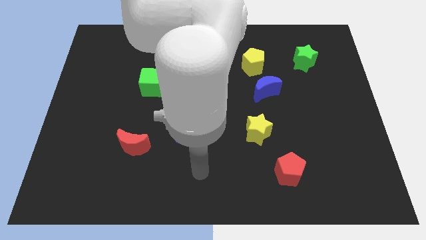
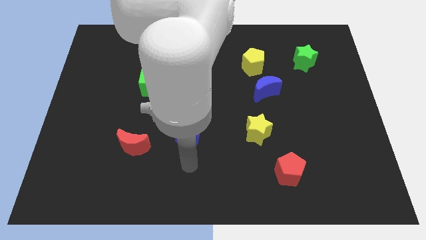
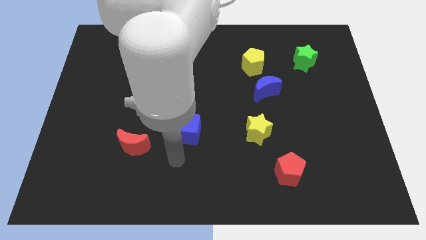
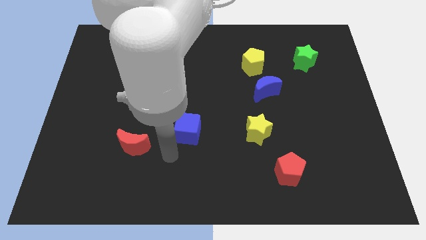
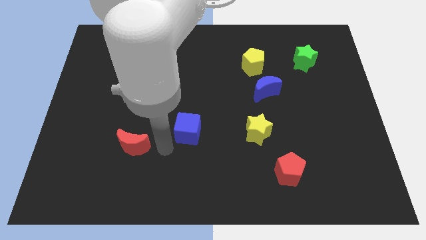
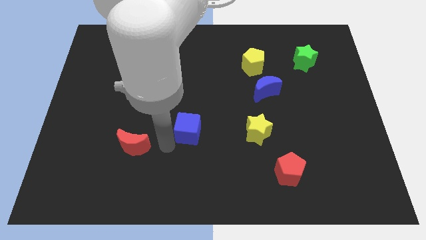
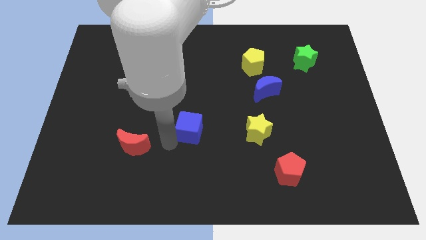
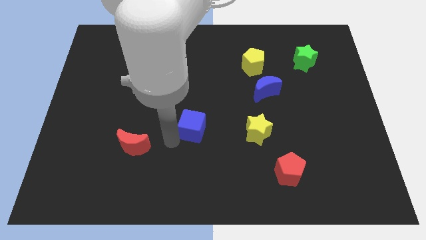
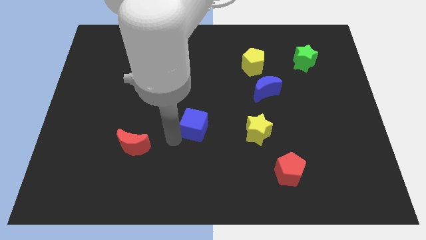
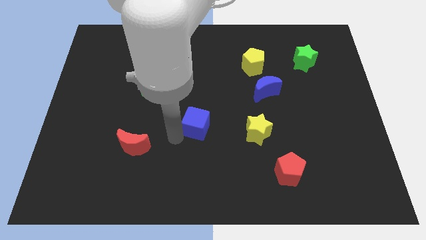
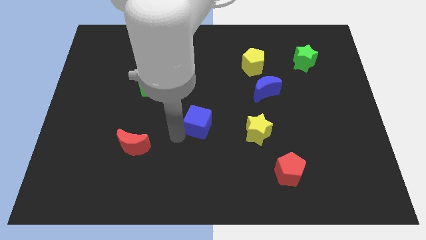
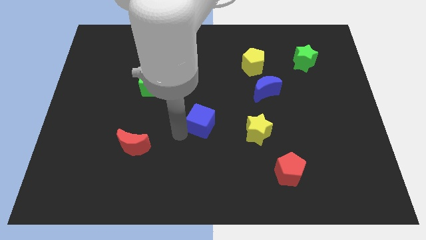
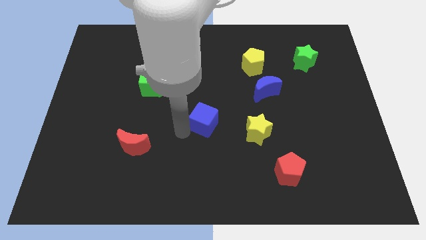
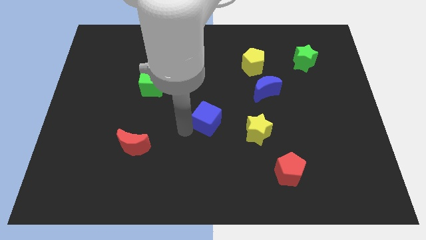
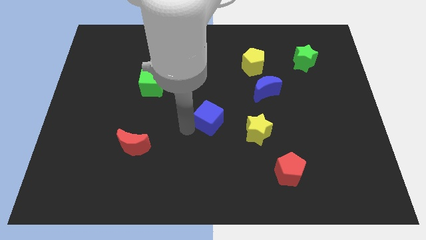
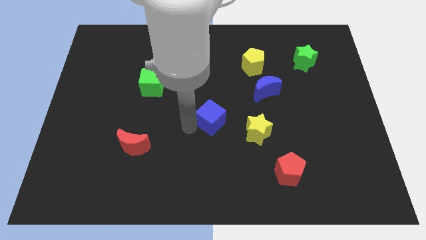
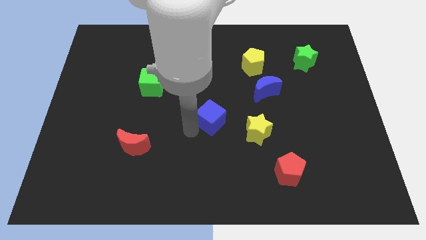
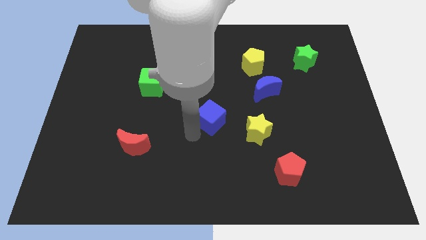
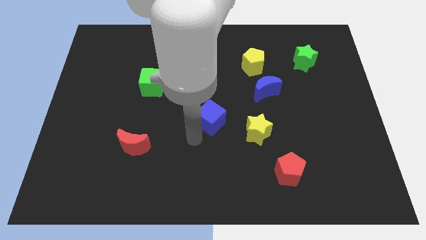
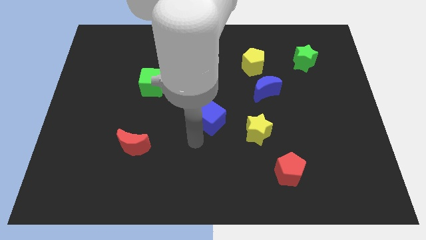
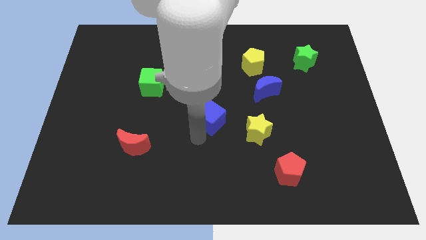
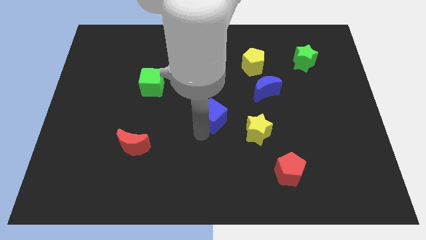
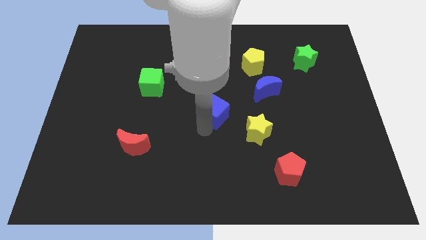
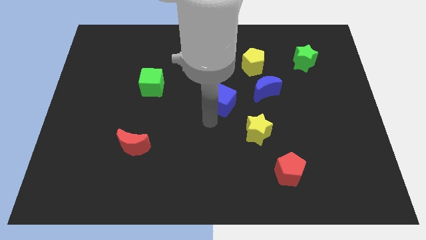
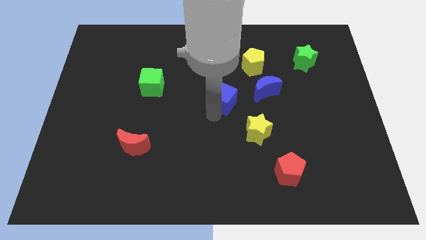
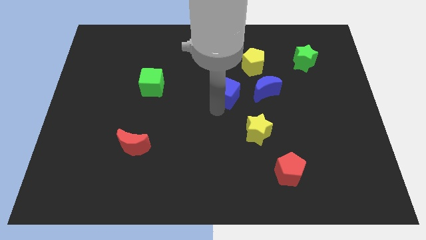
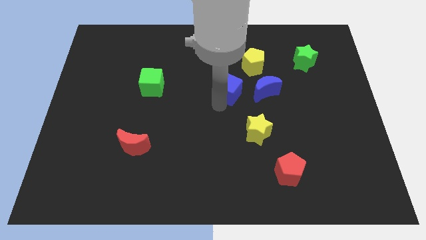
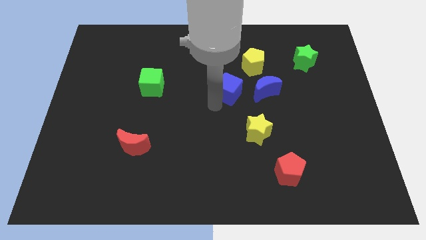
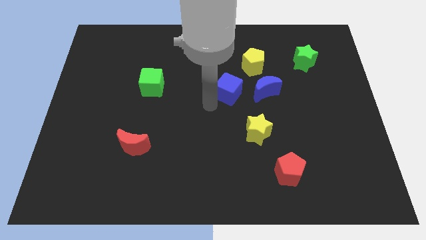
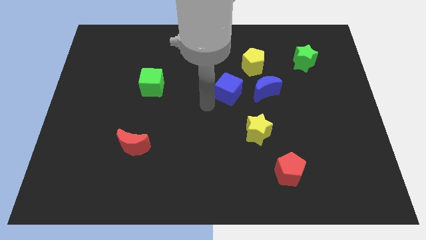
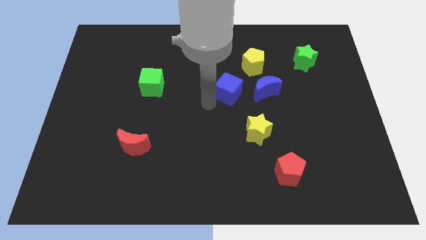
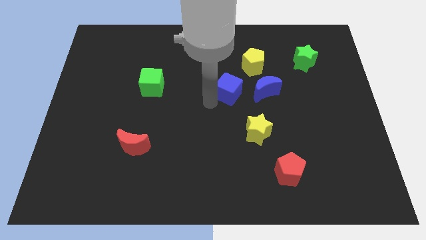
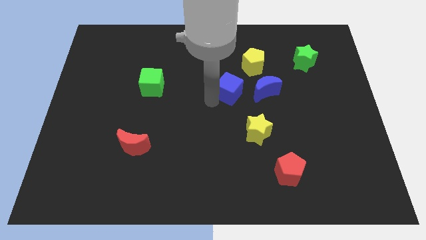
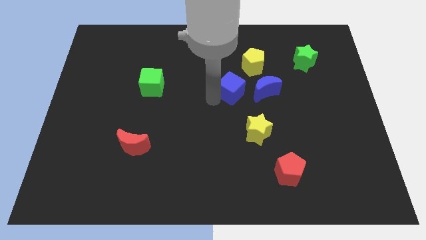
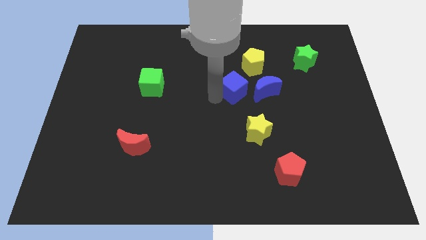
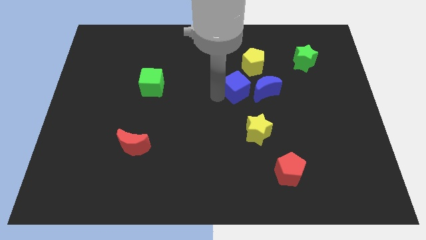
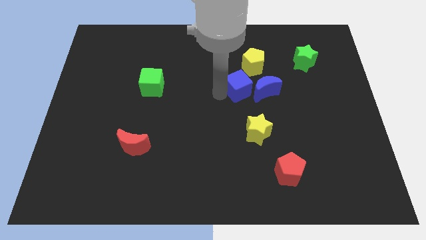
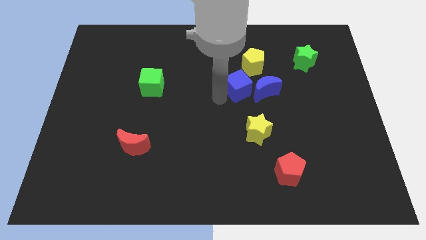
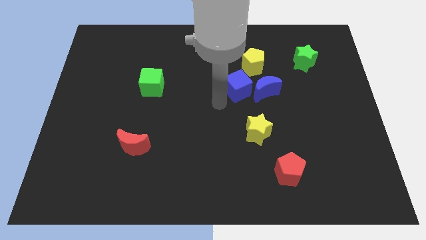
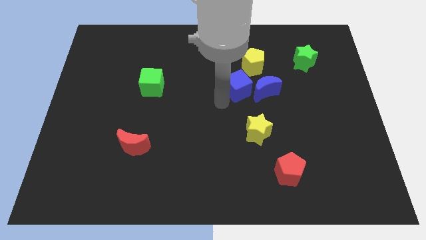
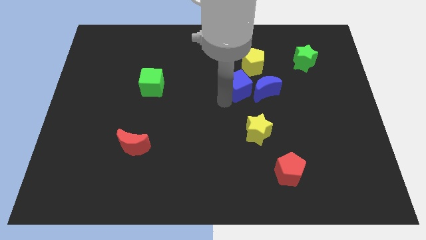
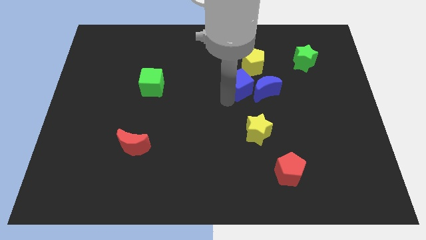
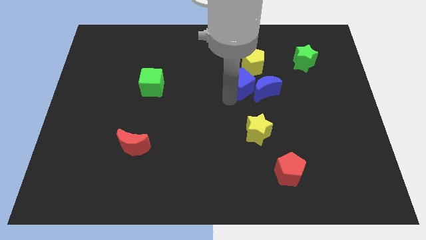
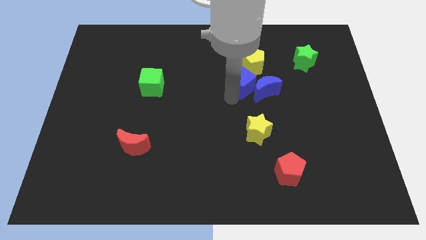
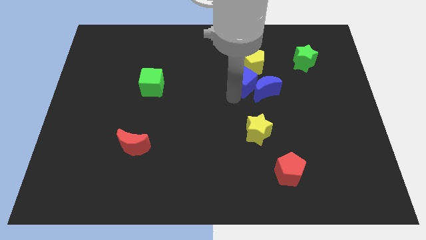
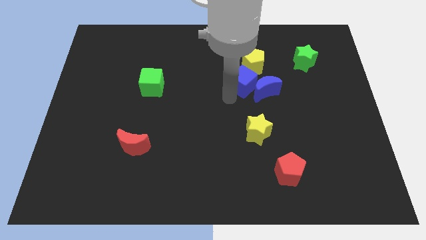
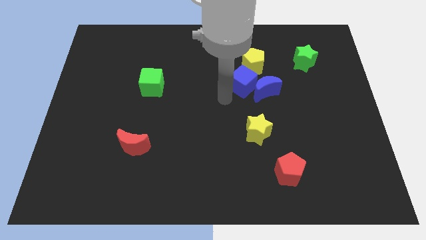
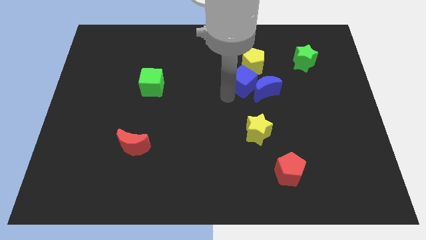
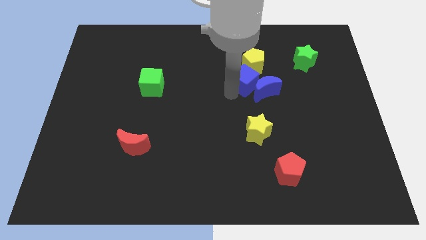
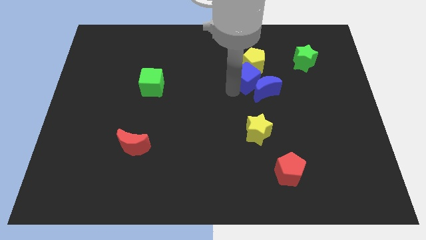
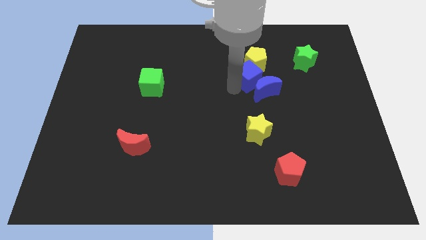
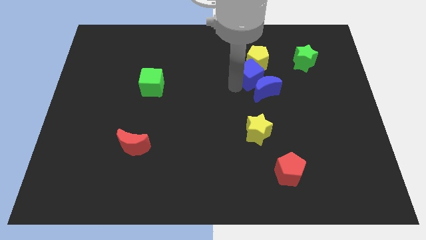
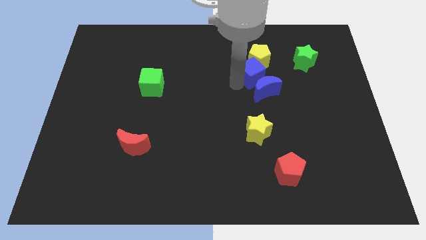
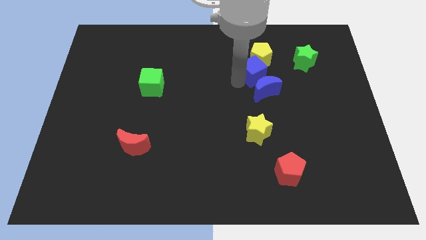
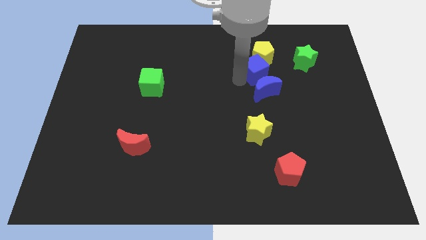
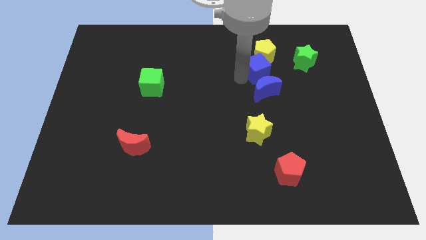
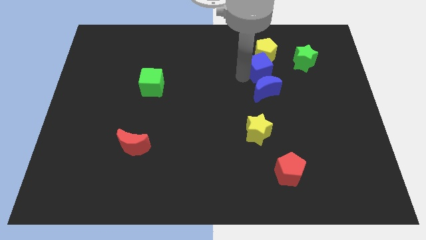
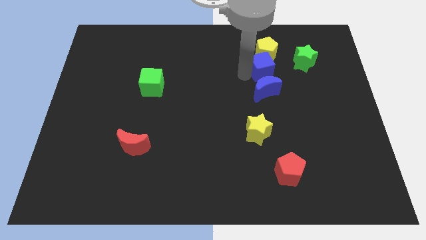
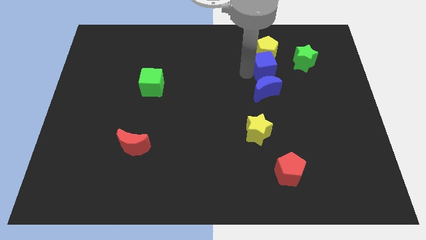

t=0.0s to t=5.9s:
push the blue cube to the bottom right of the yellow pentagon

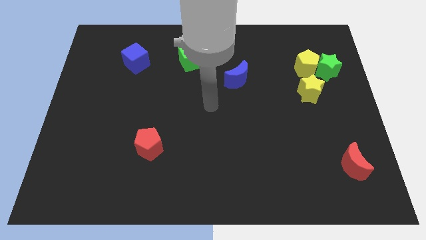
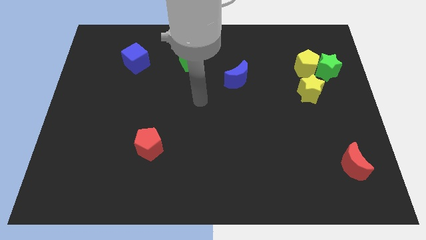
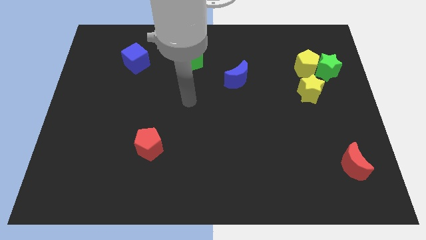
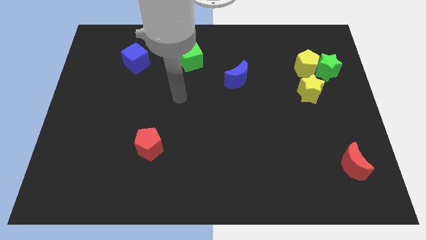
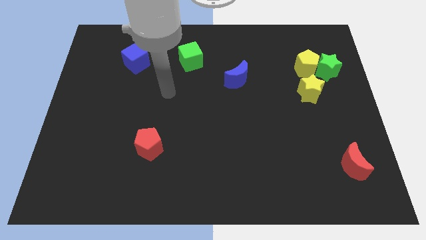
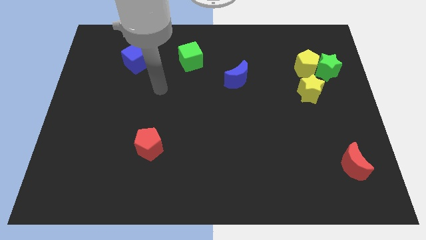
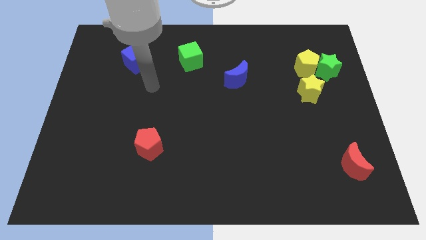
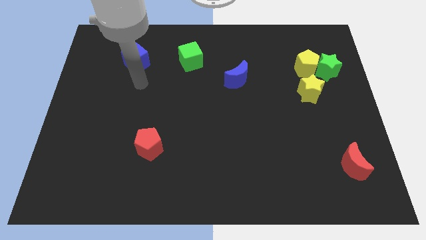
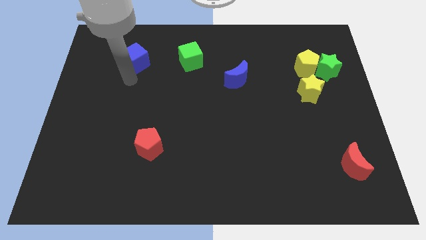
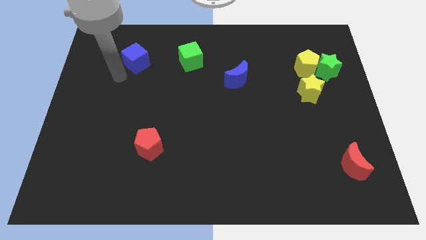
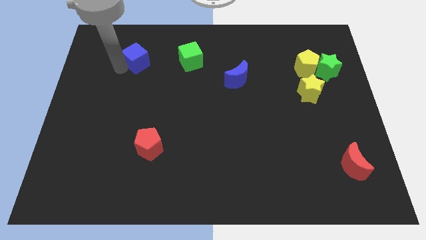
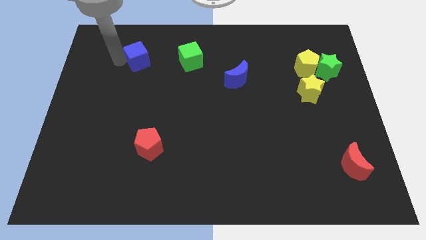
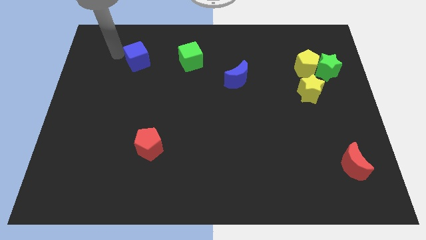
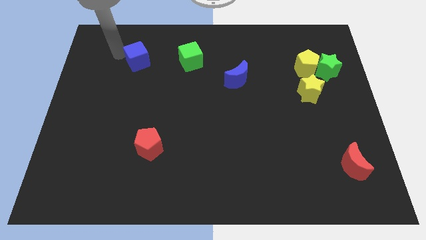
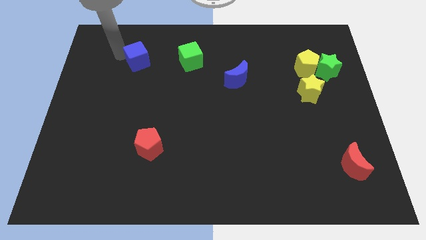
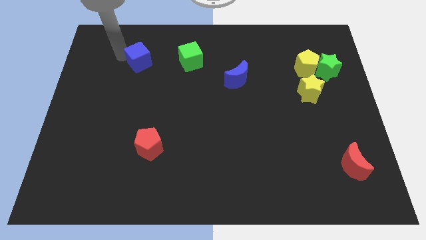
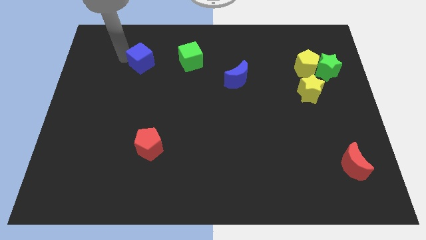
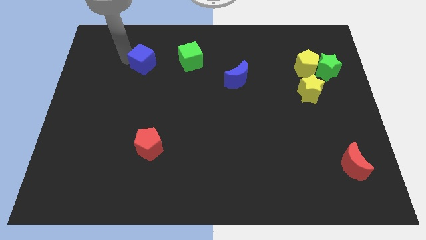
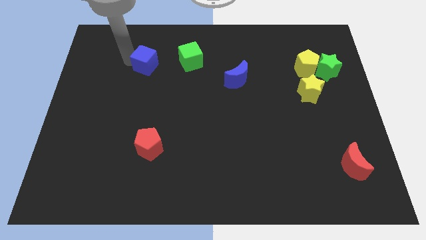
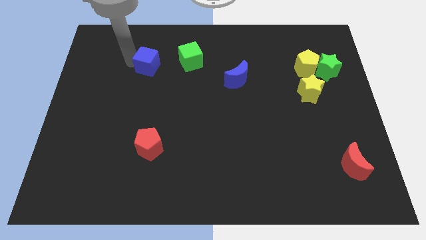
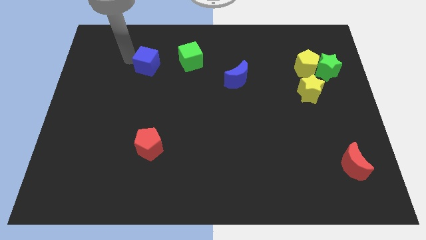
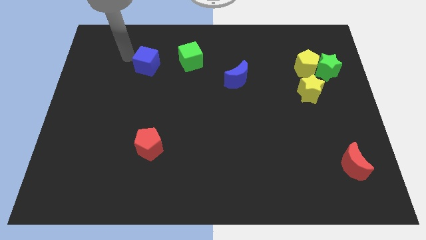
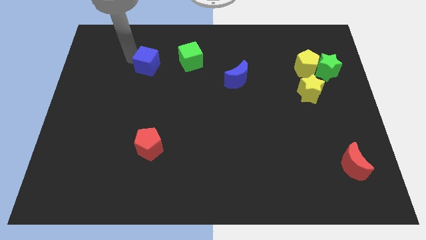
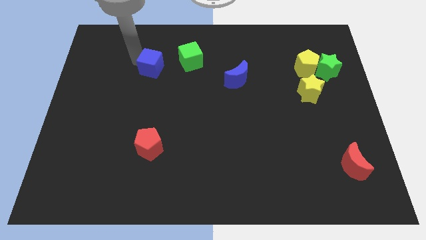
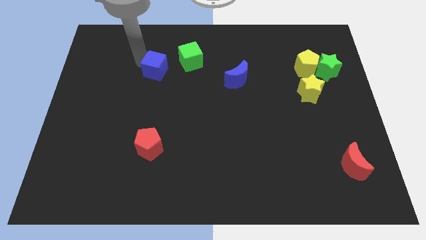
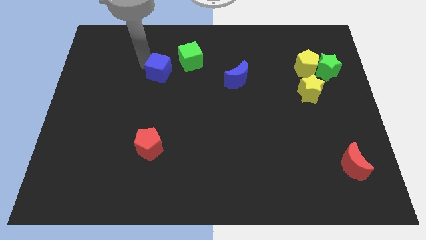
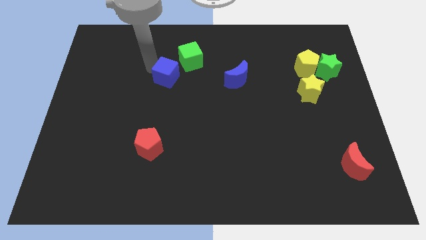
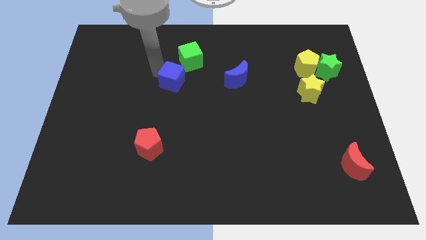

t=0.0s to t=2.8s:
slide the blue cube to the left side of the blue moon
